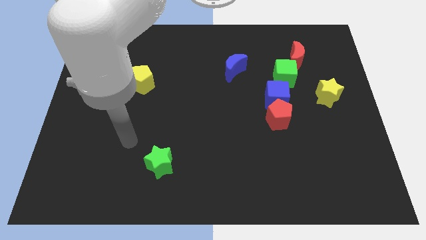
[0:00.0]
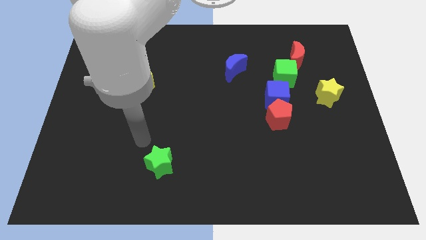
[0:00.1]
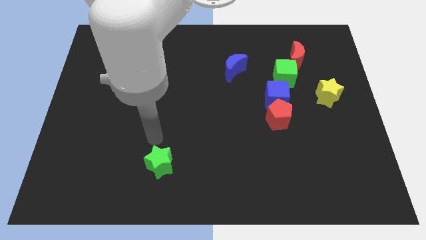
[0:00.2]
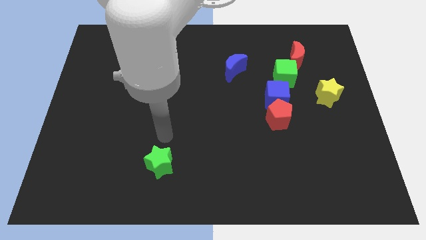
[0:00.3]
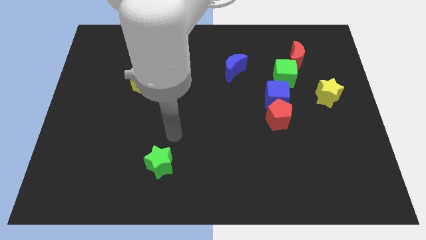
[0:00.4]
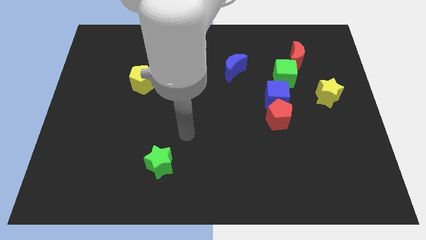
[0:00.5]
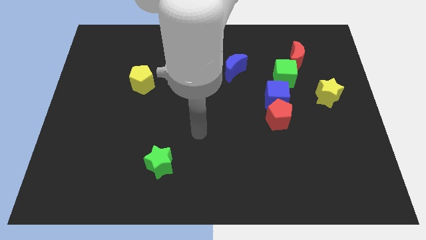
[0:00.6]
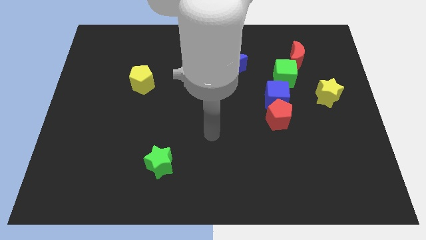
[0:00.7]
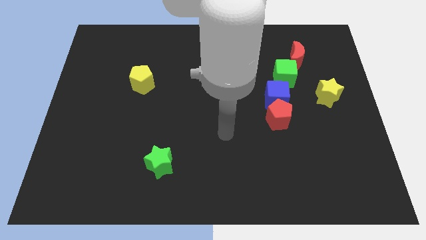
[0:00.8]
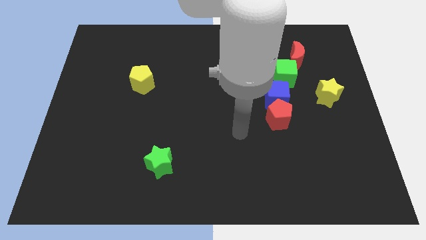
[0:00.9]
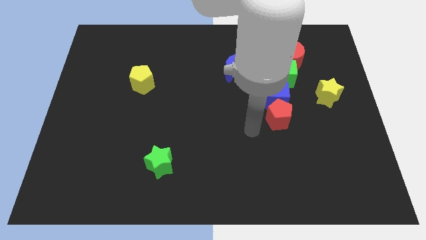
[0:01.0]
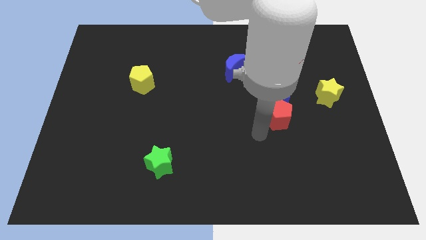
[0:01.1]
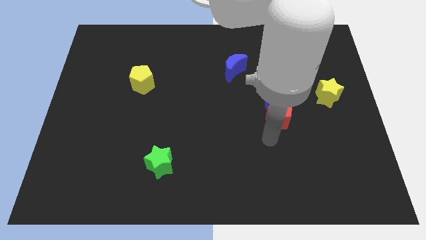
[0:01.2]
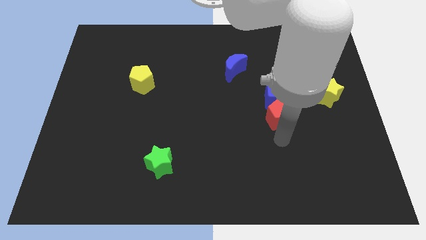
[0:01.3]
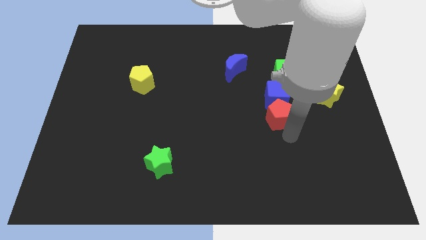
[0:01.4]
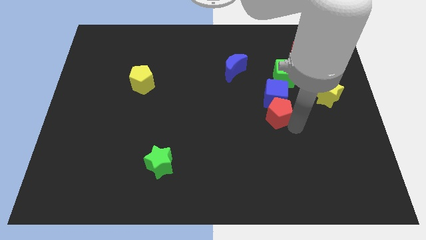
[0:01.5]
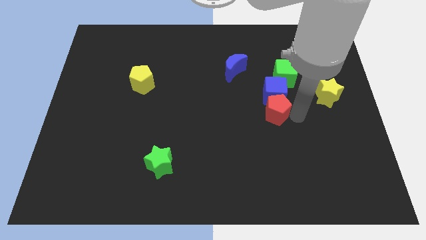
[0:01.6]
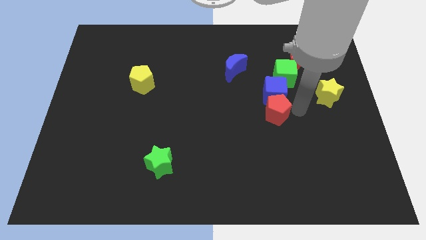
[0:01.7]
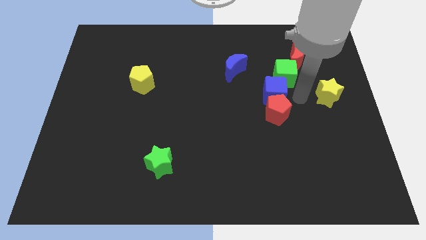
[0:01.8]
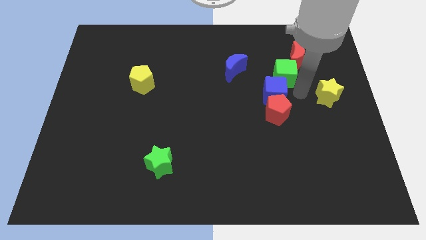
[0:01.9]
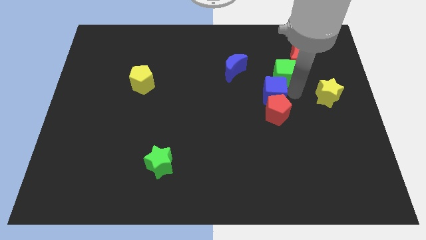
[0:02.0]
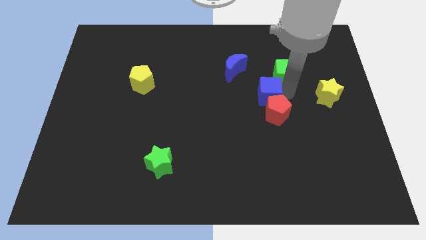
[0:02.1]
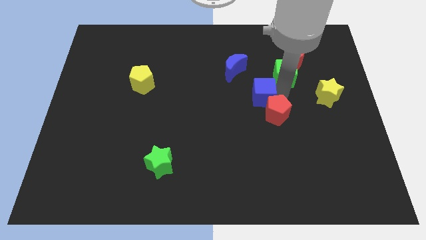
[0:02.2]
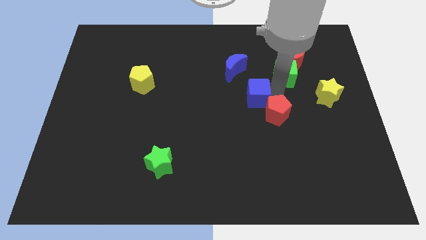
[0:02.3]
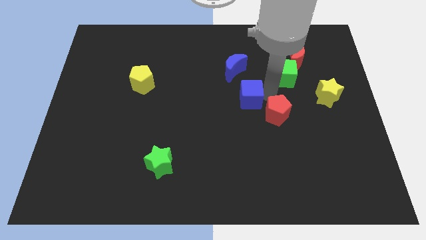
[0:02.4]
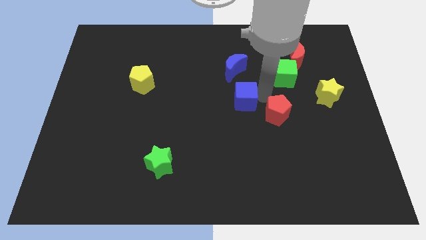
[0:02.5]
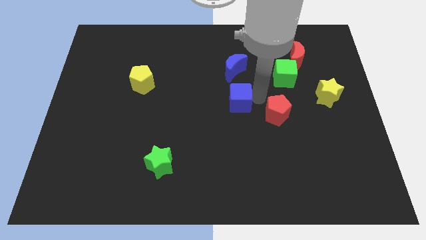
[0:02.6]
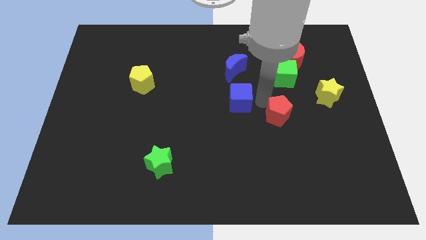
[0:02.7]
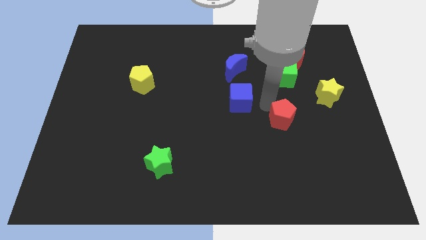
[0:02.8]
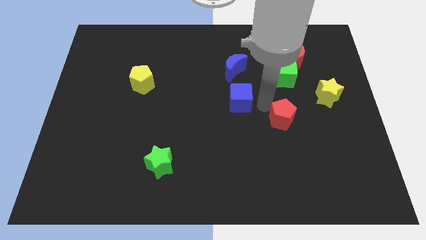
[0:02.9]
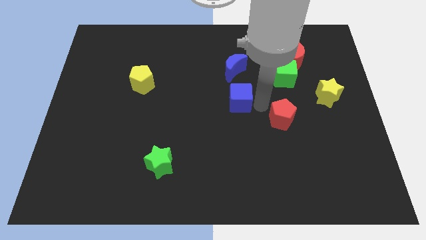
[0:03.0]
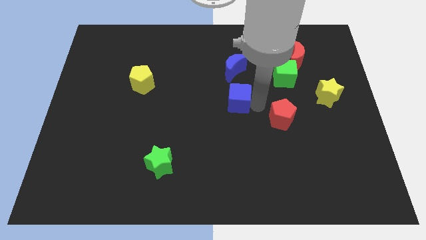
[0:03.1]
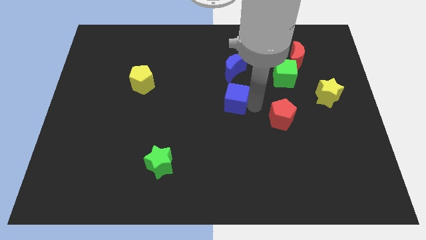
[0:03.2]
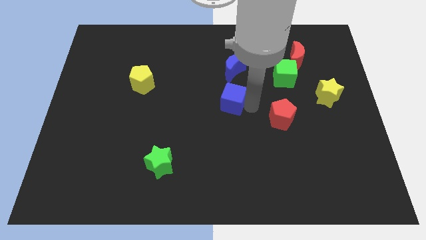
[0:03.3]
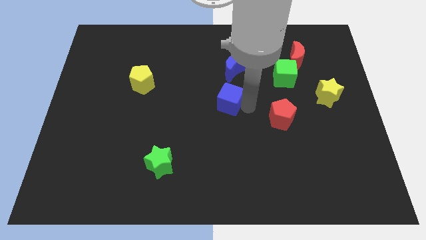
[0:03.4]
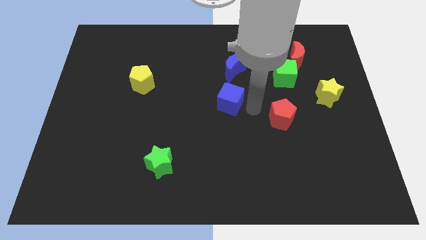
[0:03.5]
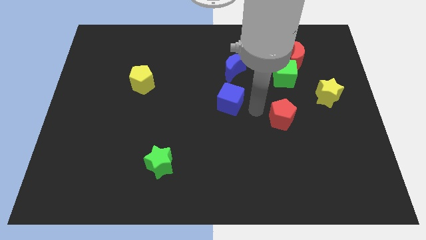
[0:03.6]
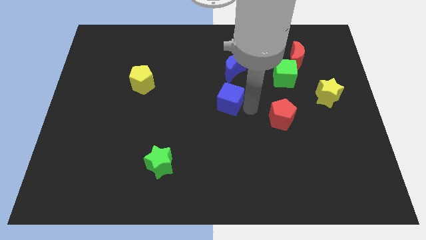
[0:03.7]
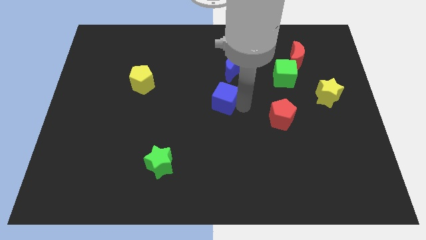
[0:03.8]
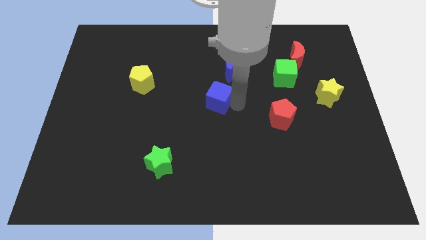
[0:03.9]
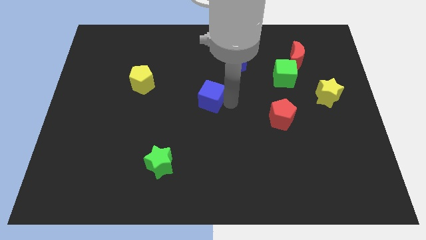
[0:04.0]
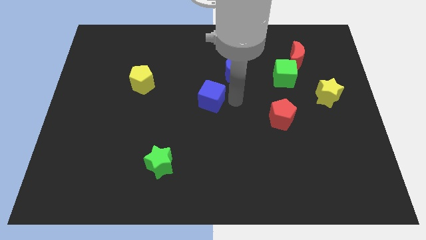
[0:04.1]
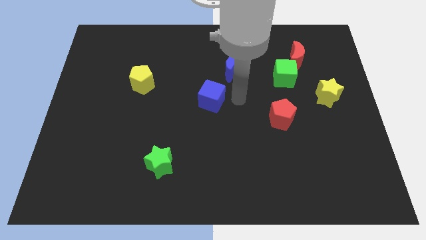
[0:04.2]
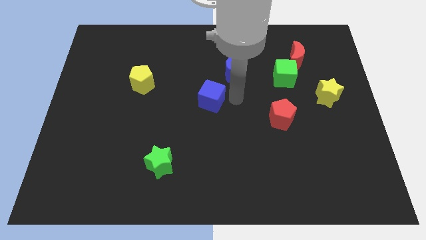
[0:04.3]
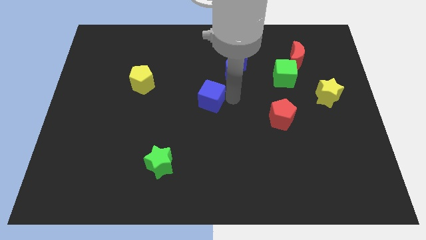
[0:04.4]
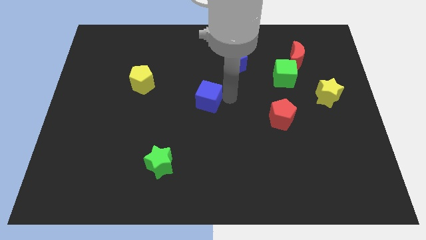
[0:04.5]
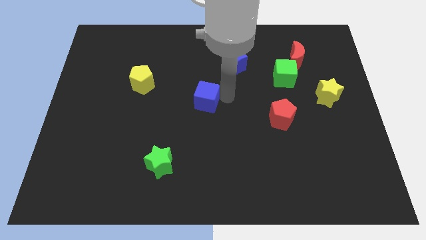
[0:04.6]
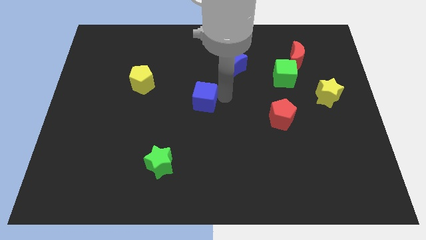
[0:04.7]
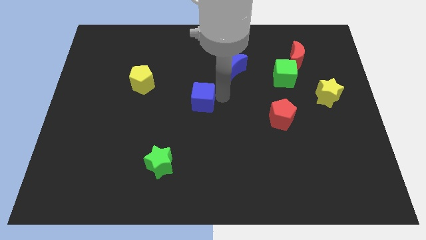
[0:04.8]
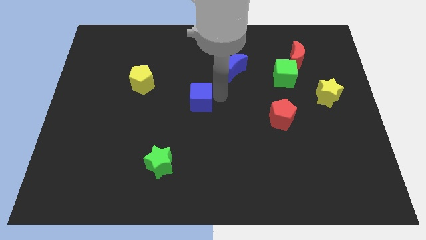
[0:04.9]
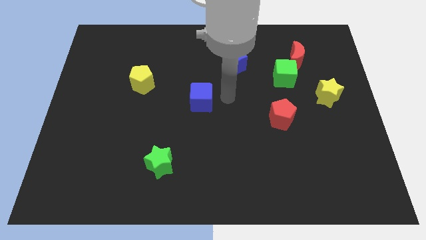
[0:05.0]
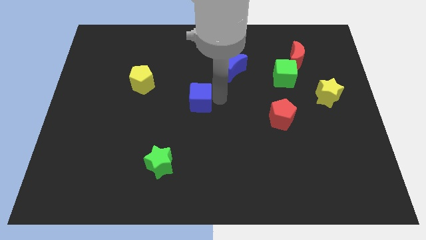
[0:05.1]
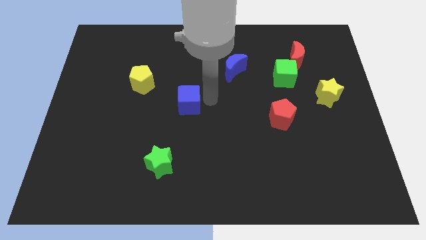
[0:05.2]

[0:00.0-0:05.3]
slide the blue cube left

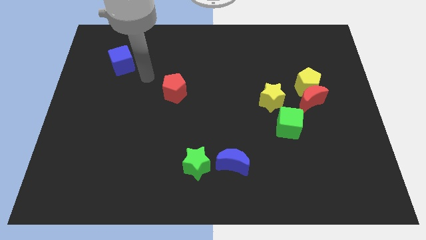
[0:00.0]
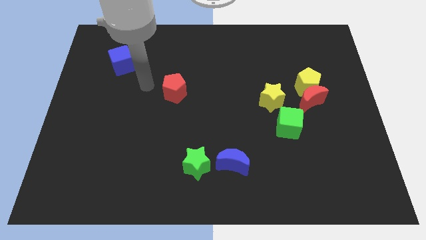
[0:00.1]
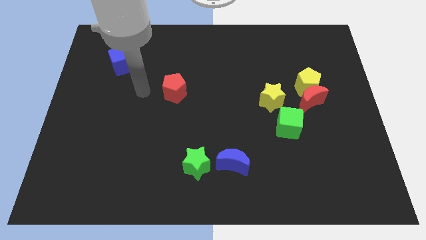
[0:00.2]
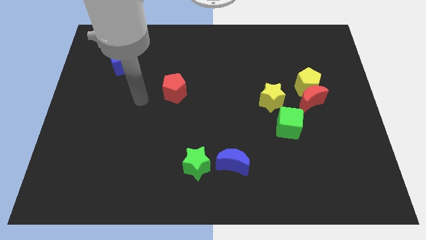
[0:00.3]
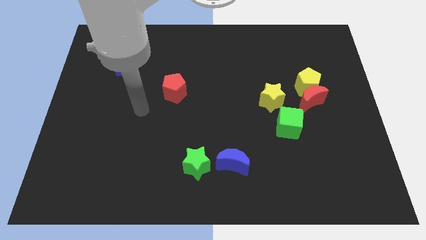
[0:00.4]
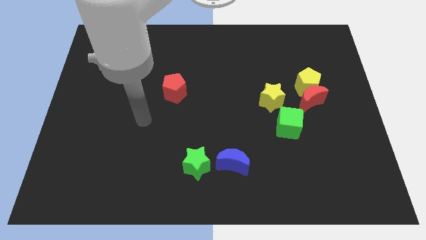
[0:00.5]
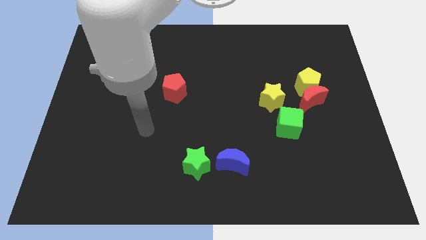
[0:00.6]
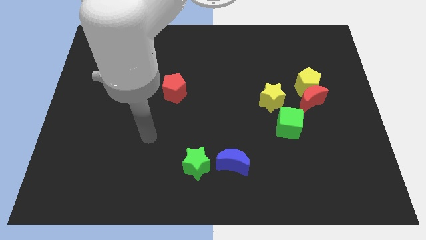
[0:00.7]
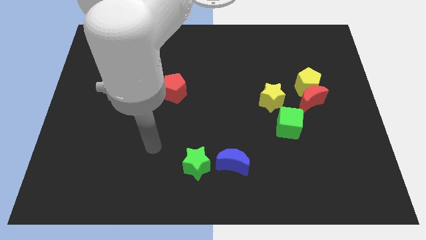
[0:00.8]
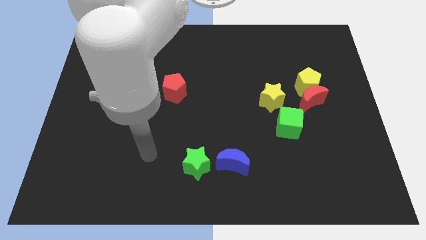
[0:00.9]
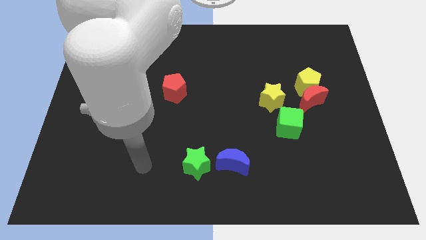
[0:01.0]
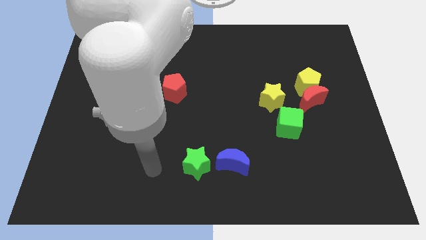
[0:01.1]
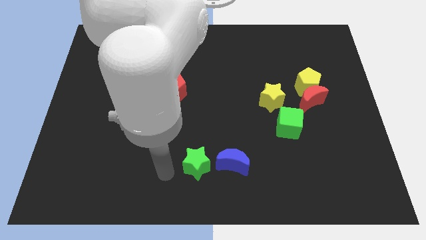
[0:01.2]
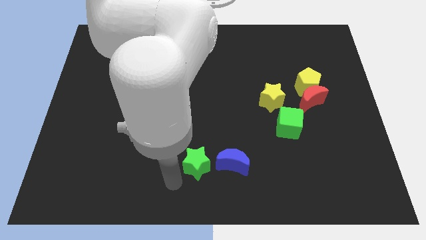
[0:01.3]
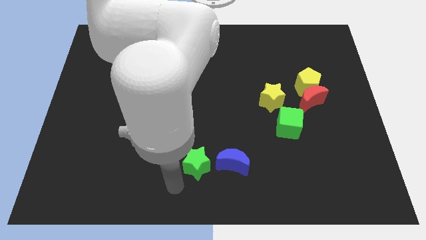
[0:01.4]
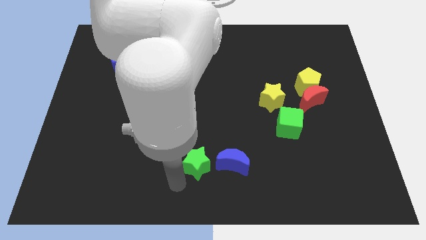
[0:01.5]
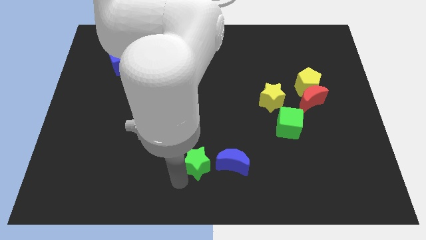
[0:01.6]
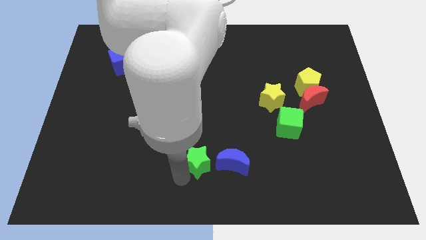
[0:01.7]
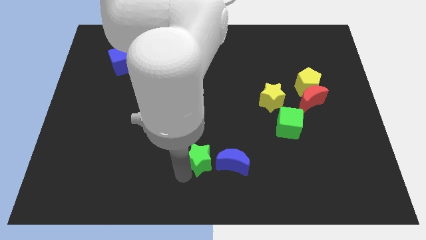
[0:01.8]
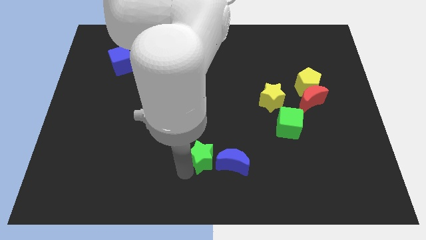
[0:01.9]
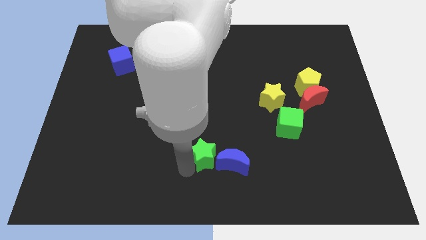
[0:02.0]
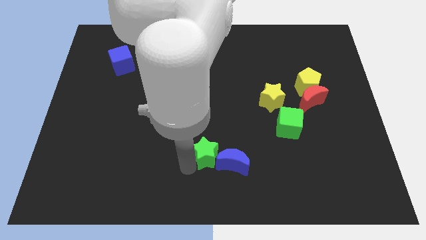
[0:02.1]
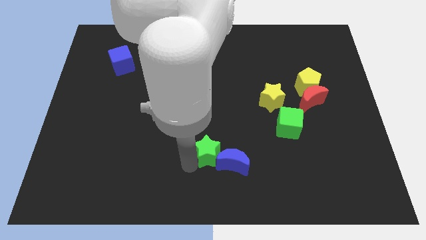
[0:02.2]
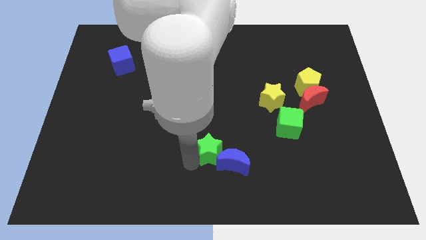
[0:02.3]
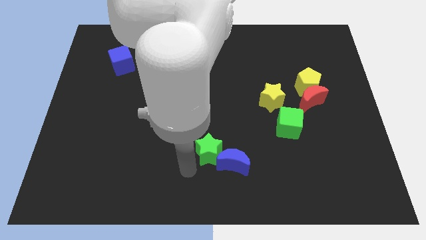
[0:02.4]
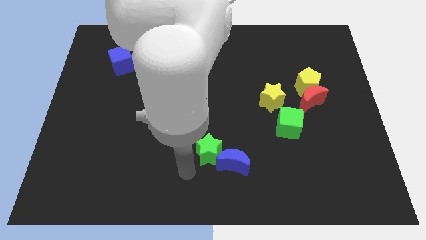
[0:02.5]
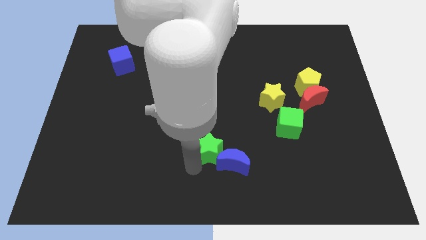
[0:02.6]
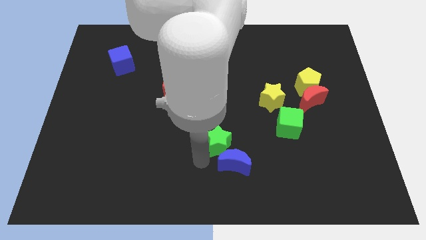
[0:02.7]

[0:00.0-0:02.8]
slightly slide the green star upwards and then to the right
